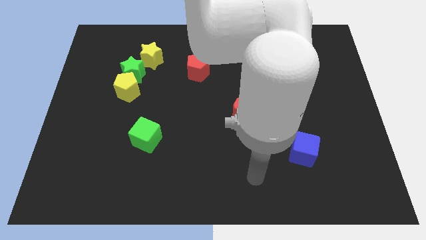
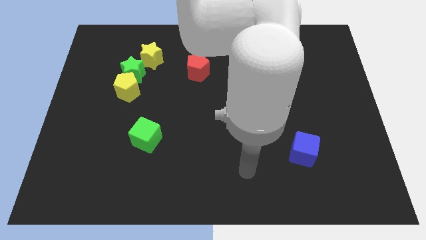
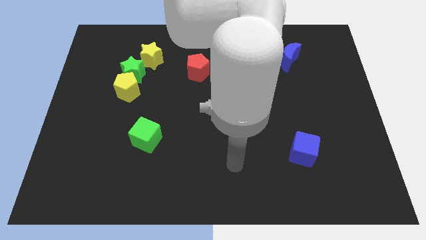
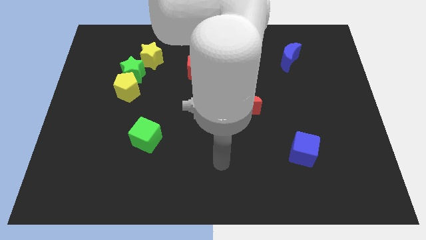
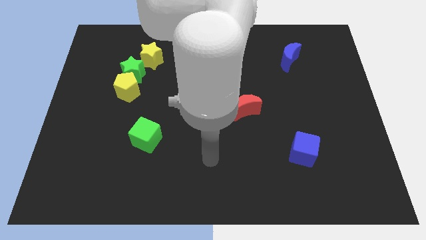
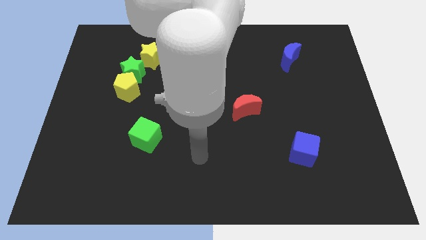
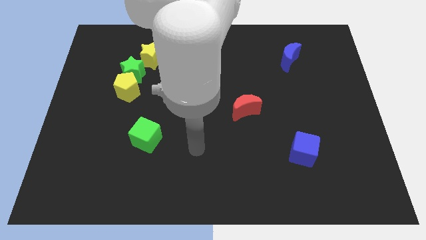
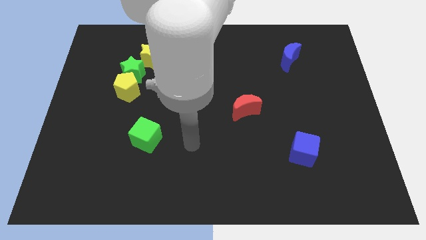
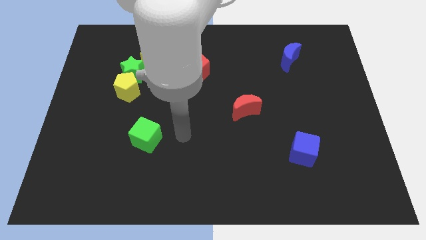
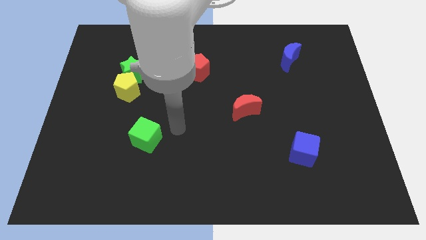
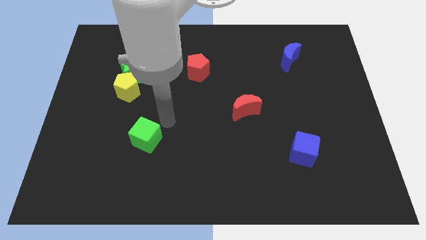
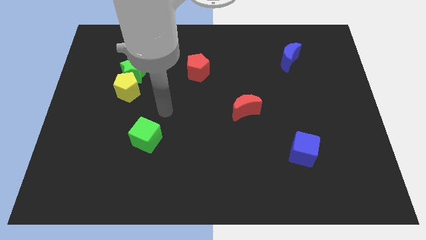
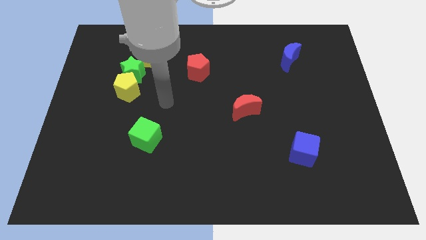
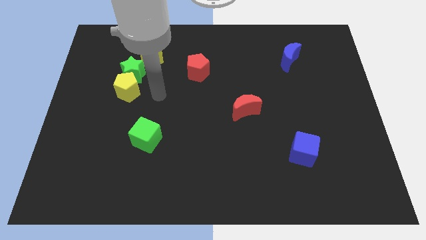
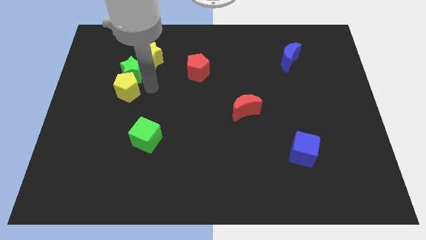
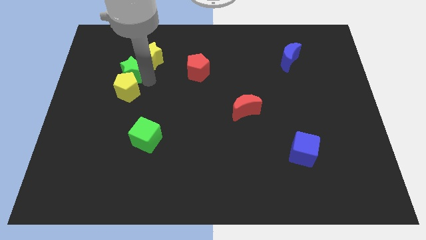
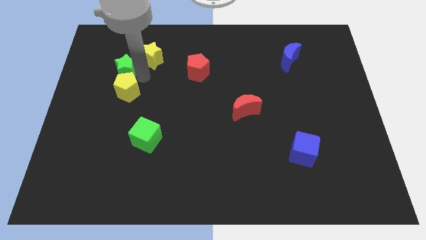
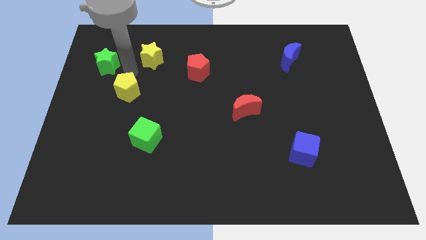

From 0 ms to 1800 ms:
move the yellow pentagon away from the green star

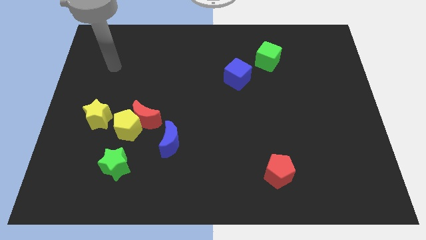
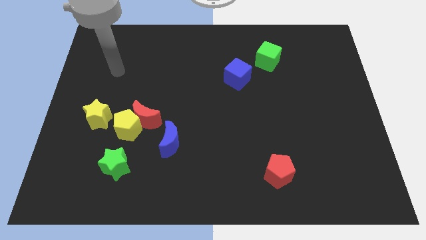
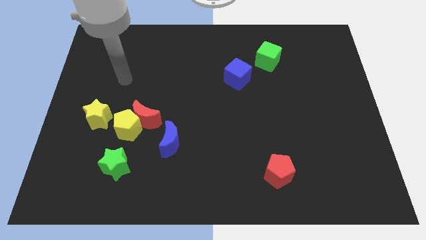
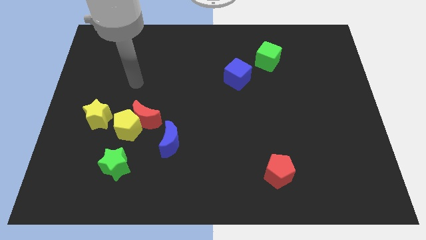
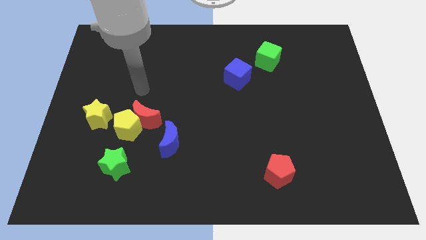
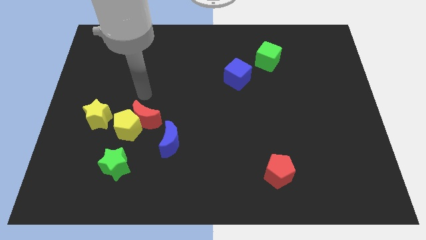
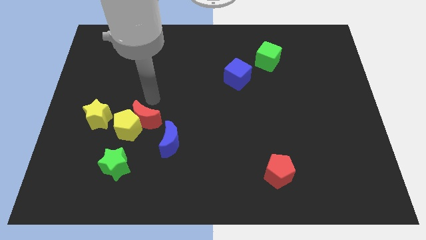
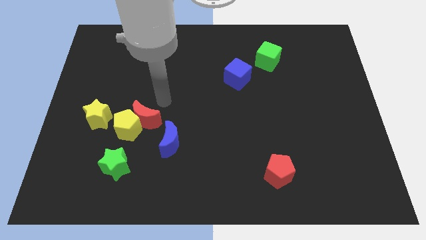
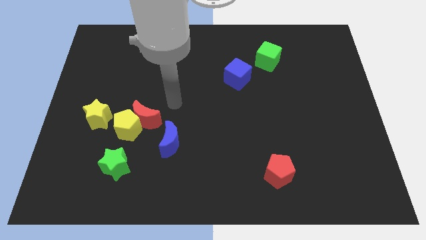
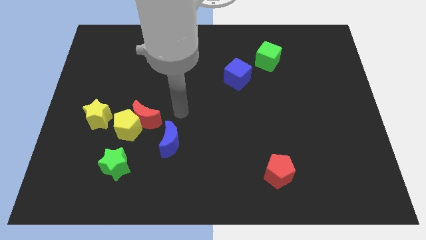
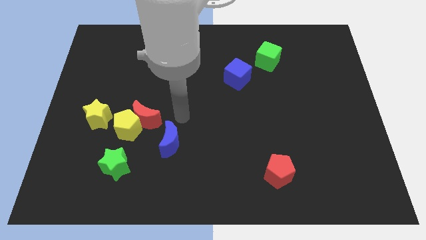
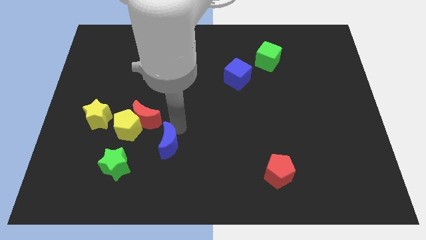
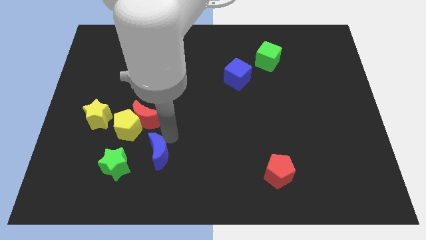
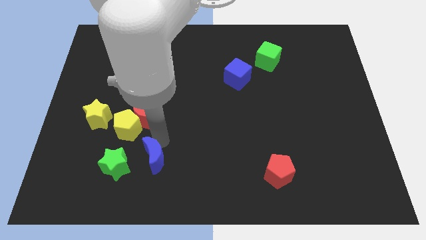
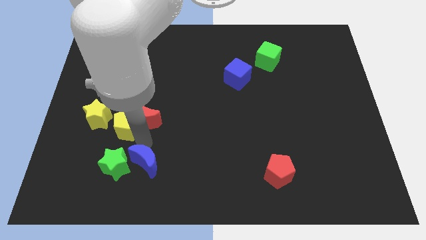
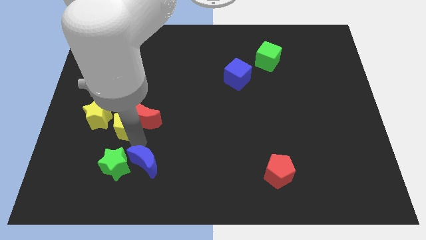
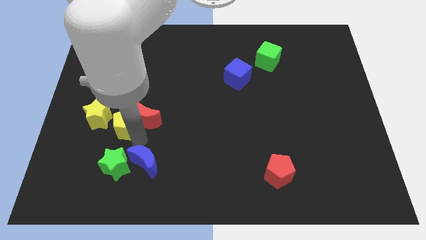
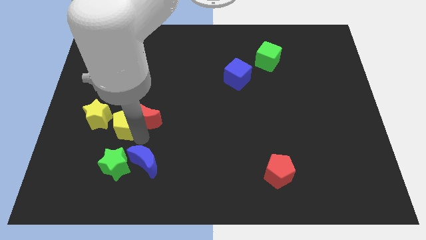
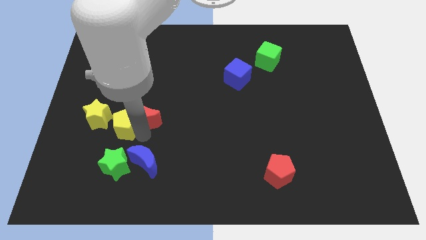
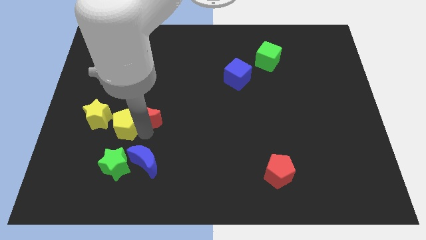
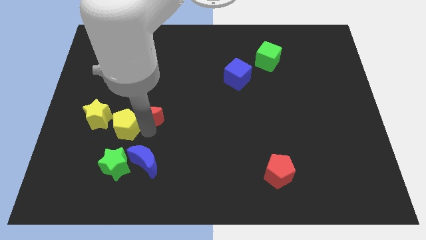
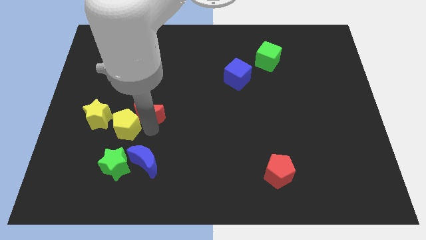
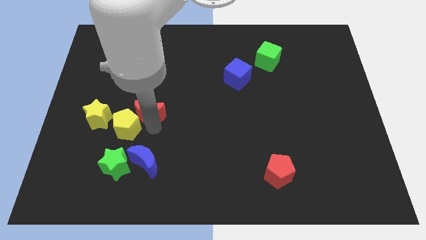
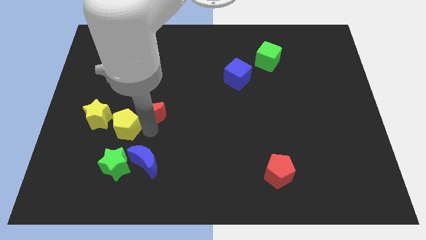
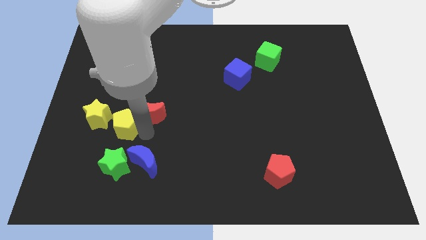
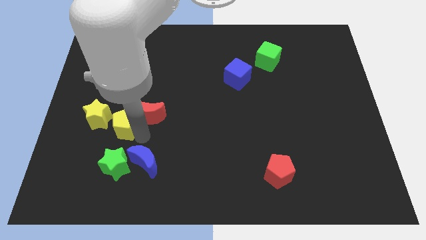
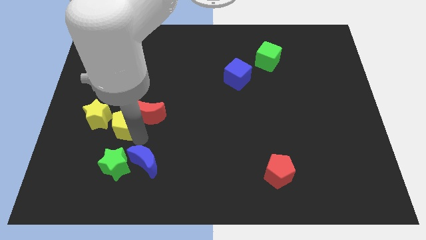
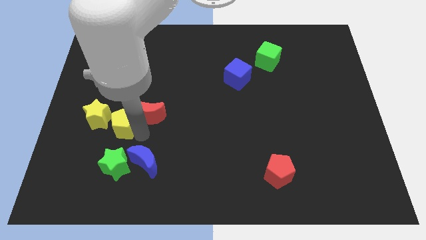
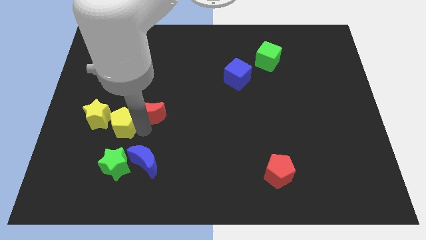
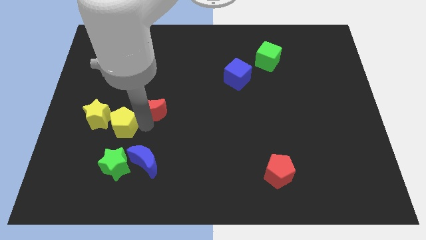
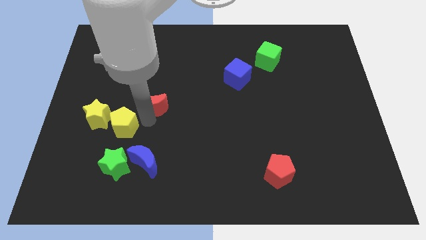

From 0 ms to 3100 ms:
separate the red moon from the yellow pentagon and blue moon

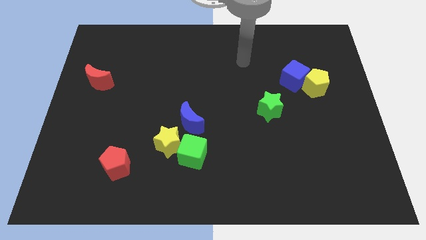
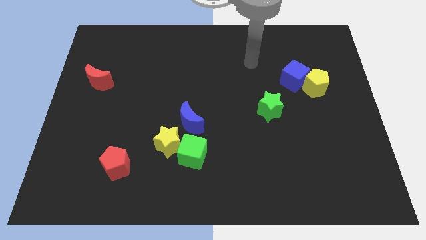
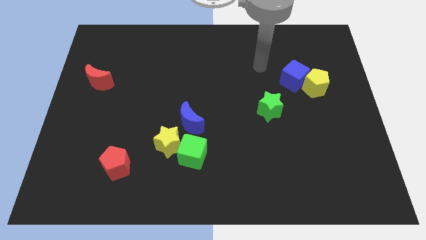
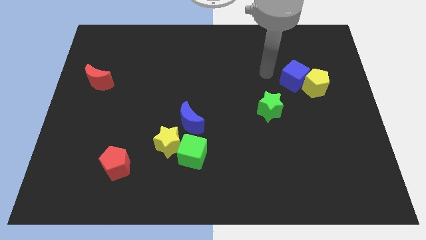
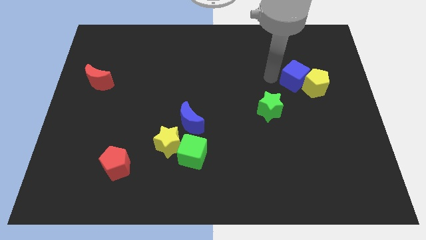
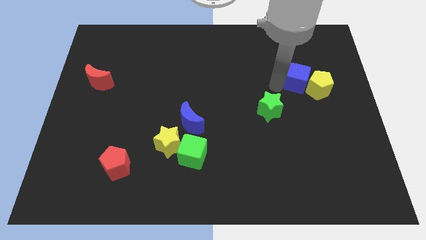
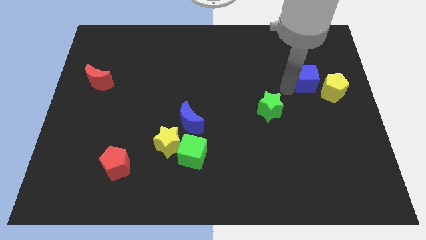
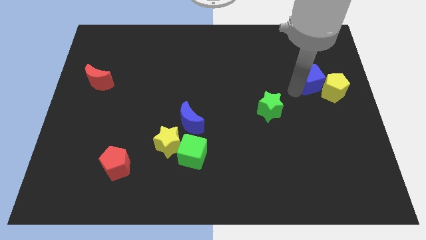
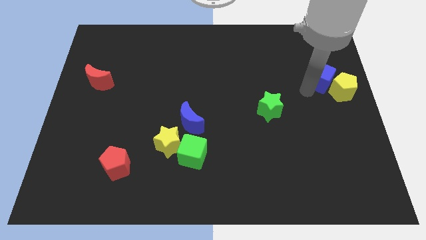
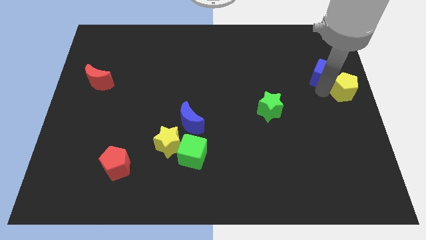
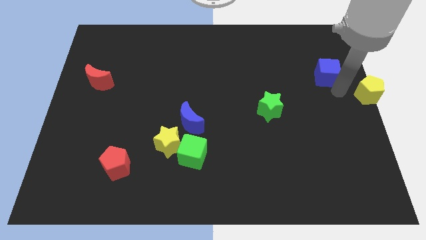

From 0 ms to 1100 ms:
move the blue cube away from the yellow pentagon

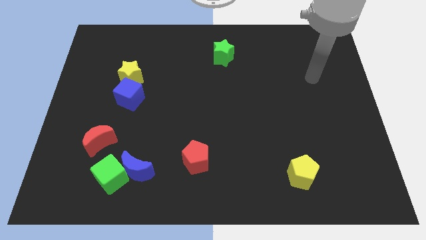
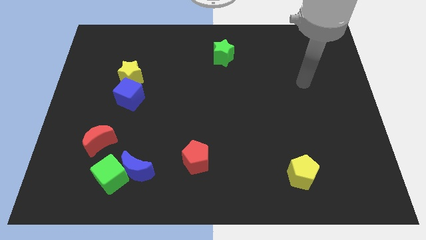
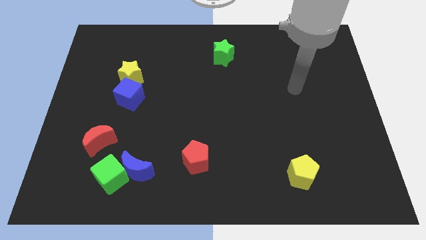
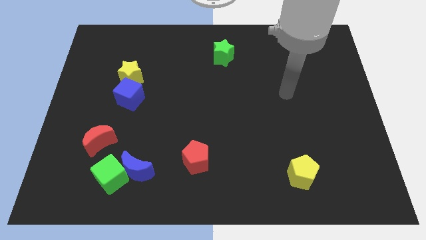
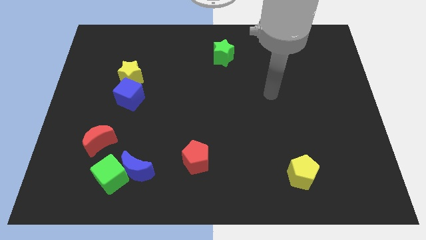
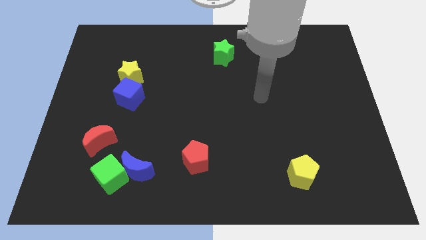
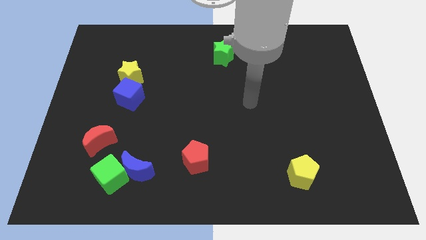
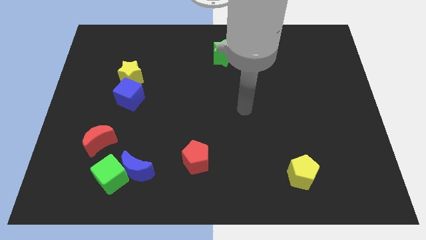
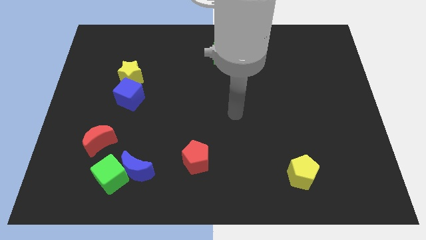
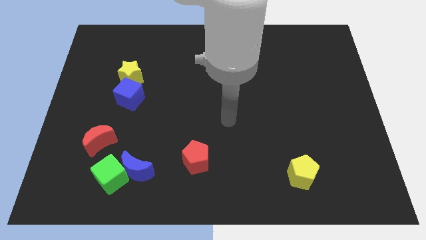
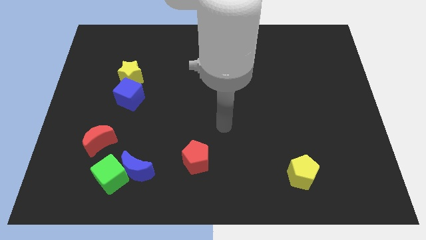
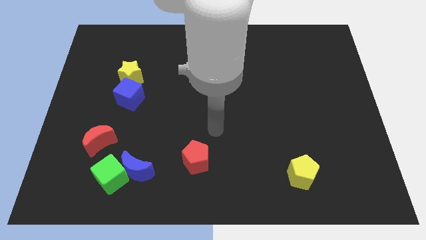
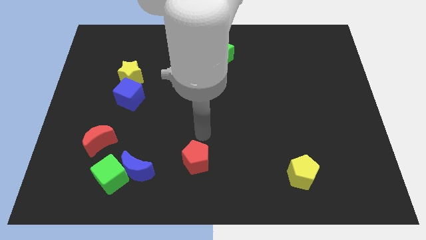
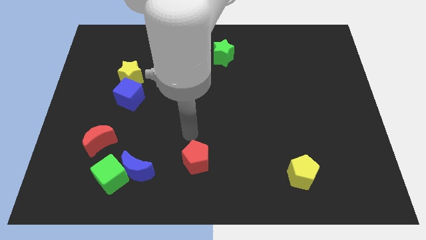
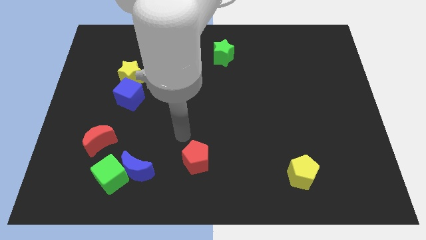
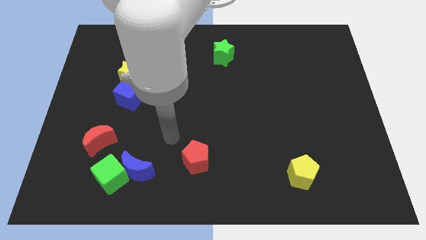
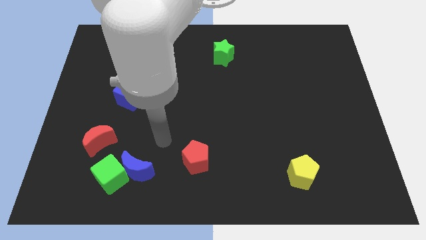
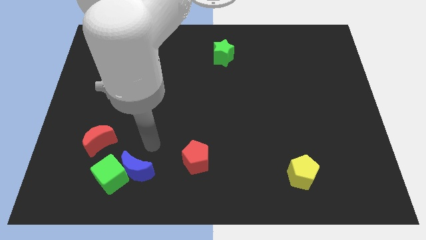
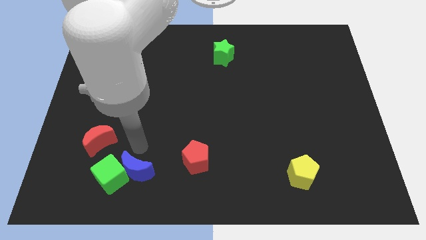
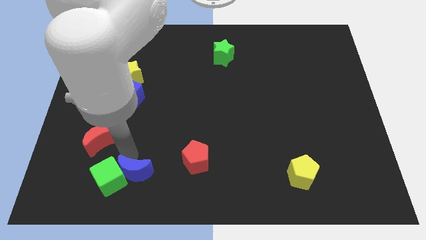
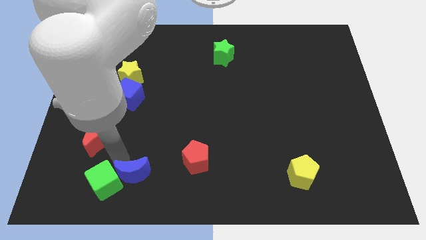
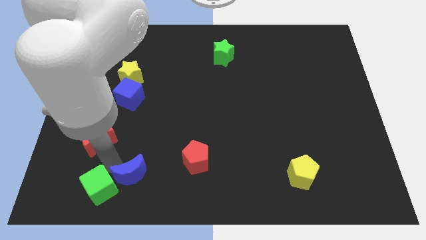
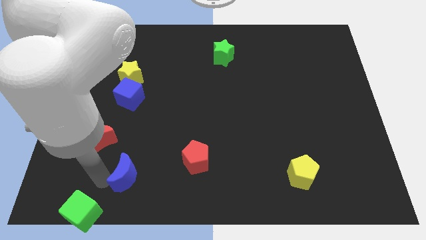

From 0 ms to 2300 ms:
move the blue moon away from the green cube

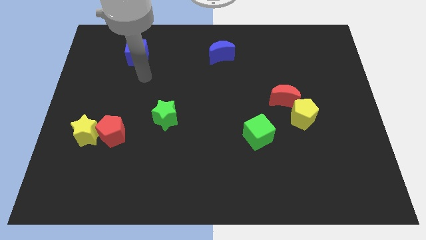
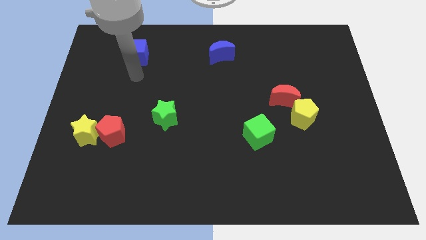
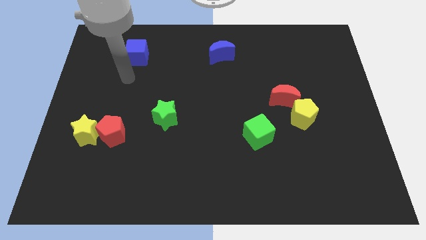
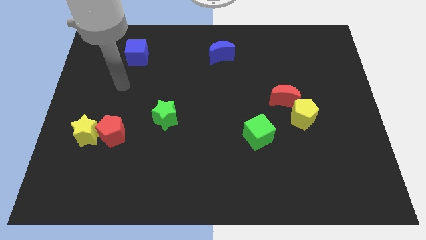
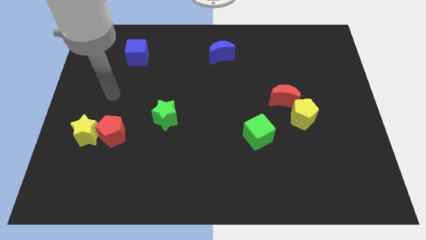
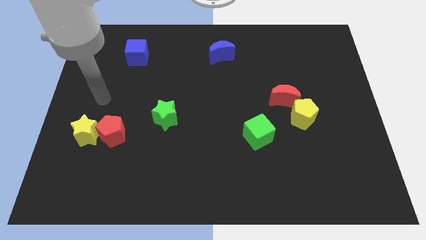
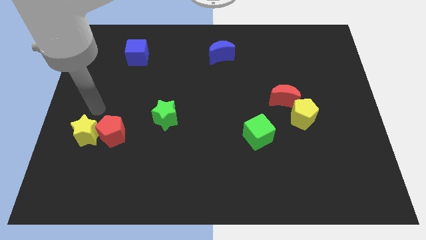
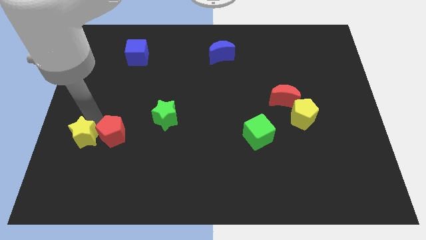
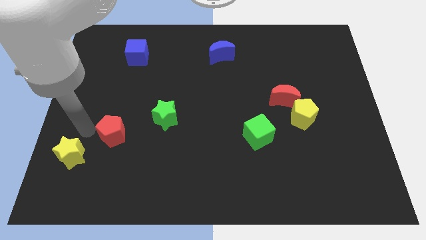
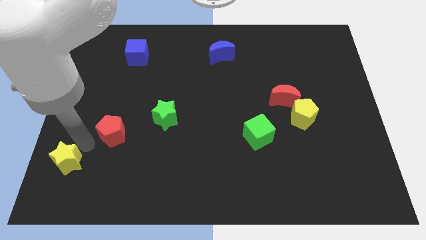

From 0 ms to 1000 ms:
pull the red pentagon apart from the yellow star
